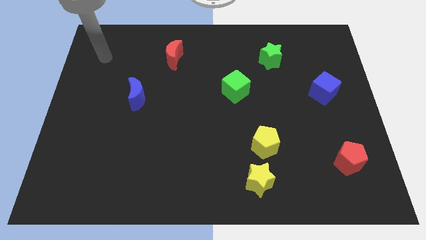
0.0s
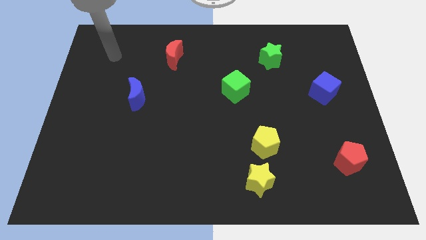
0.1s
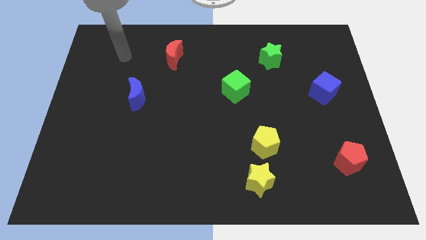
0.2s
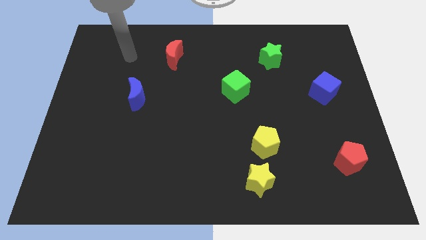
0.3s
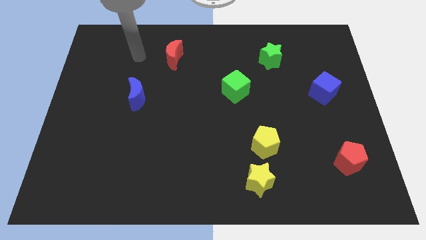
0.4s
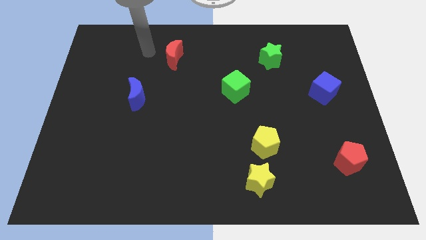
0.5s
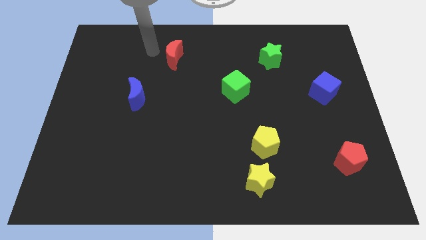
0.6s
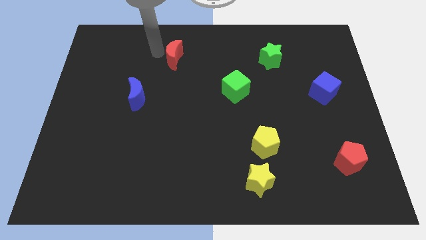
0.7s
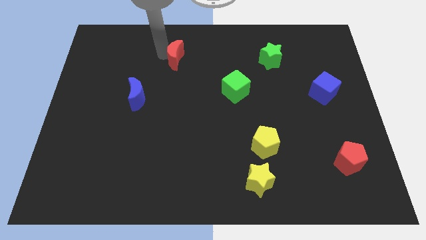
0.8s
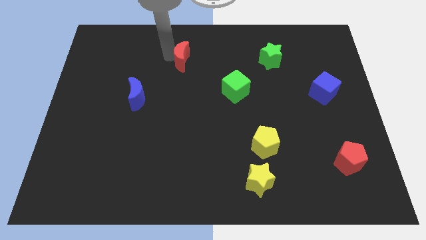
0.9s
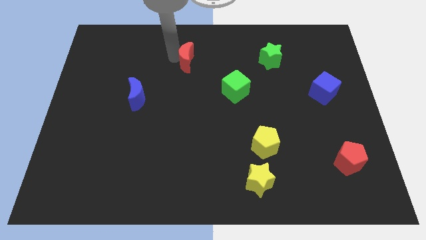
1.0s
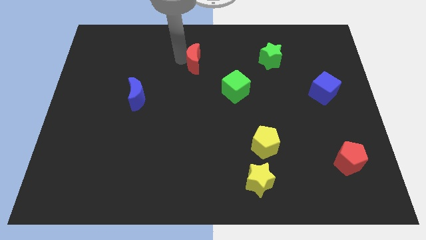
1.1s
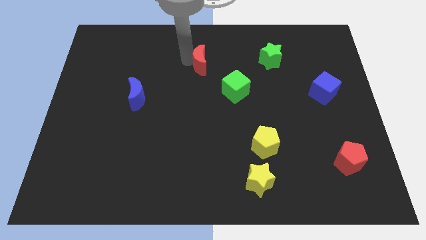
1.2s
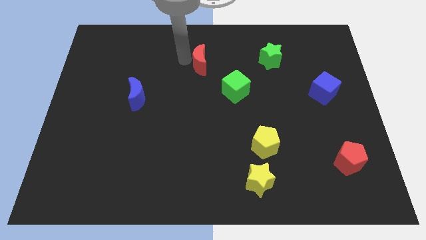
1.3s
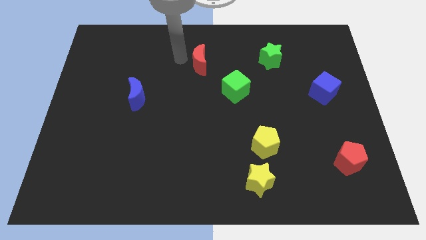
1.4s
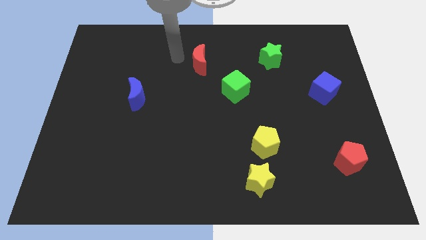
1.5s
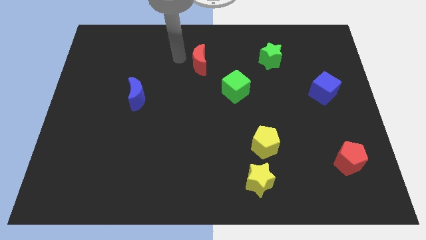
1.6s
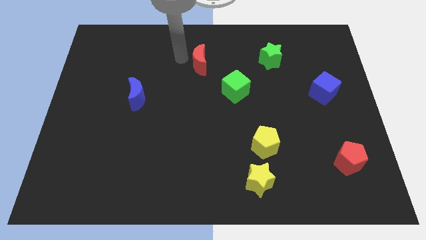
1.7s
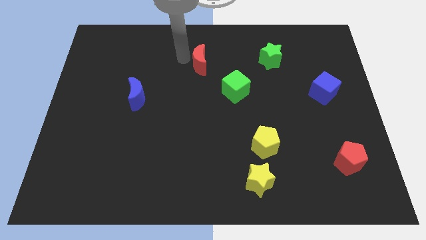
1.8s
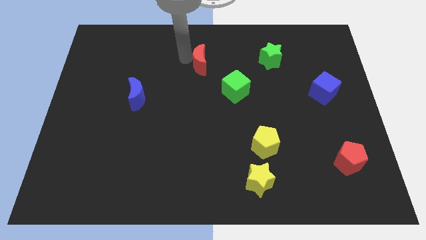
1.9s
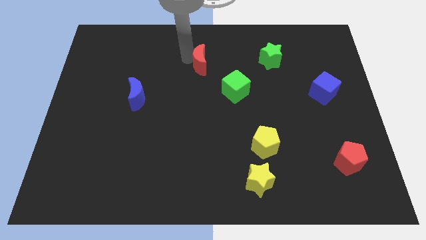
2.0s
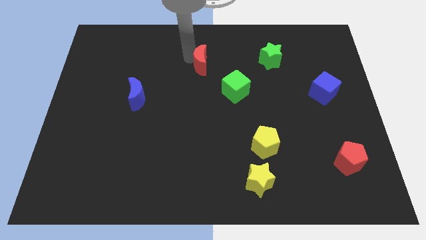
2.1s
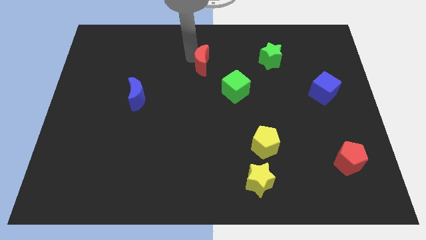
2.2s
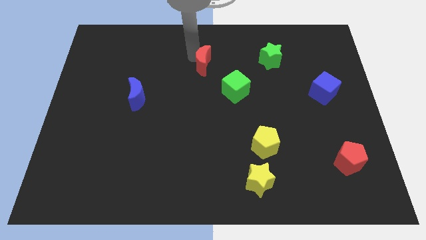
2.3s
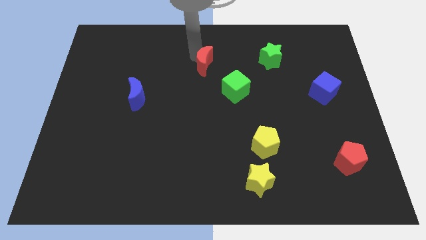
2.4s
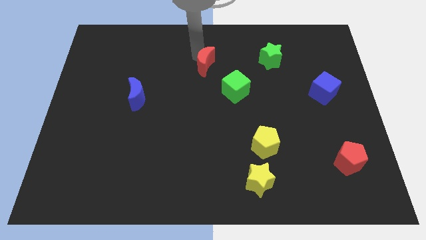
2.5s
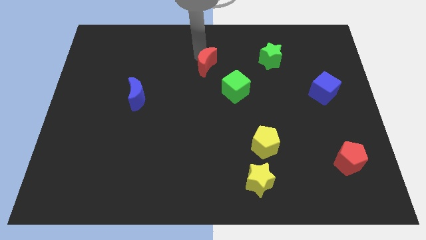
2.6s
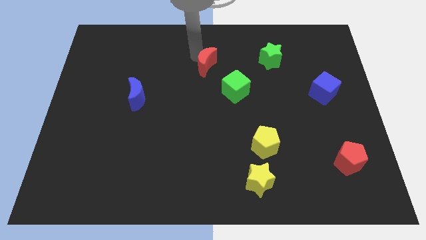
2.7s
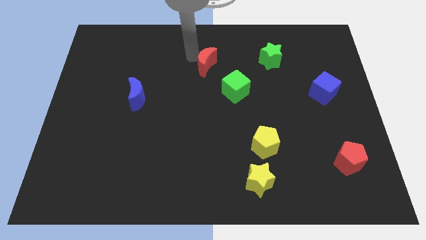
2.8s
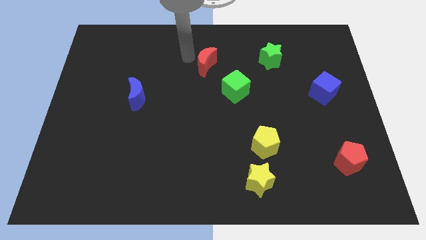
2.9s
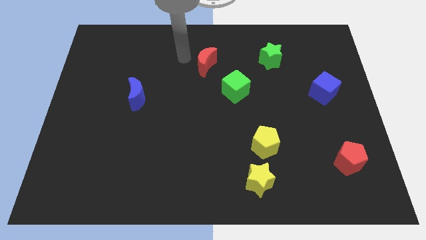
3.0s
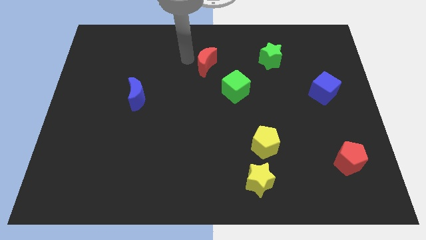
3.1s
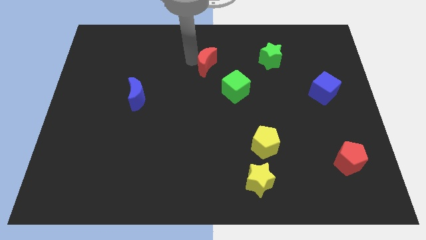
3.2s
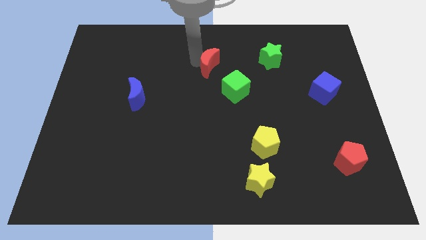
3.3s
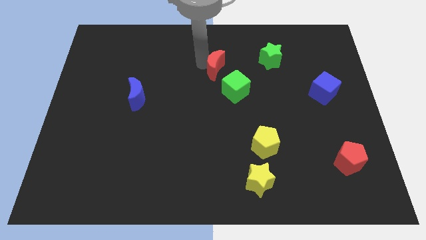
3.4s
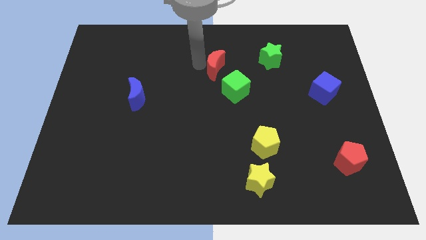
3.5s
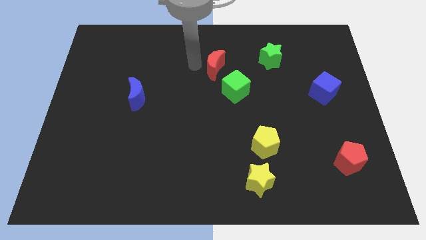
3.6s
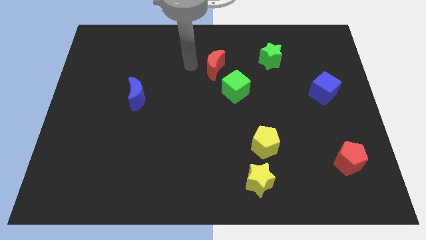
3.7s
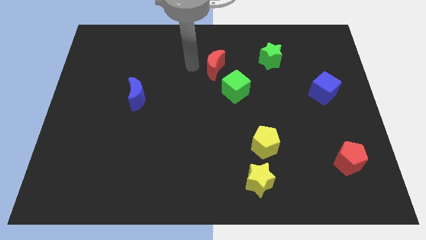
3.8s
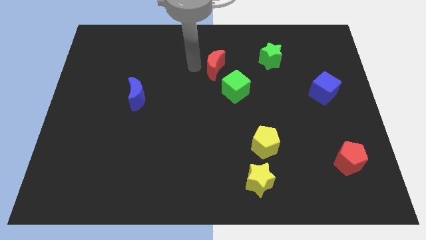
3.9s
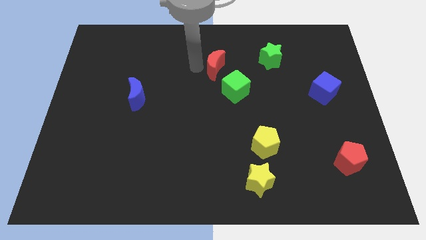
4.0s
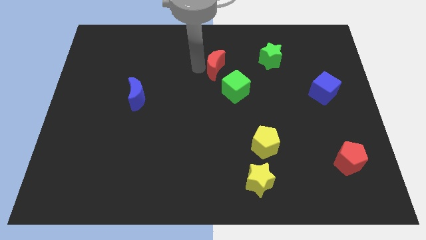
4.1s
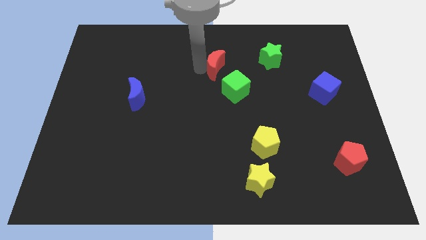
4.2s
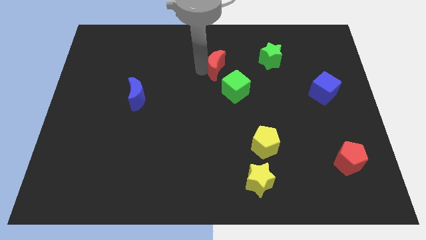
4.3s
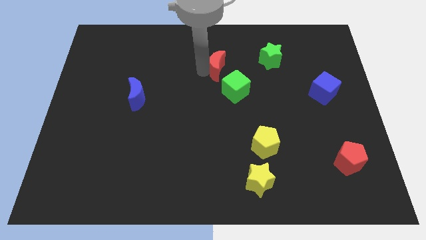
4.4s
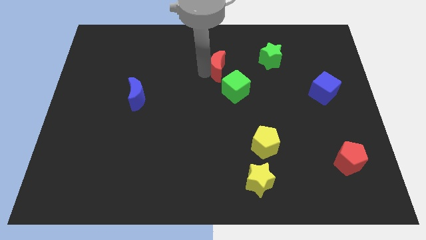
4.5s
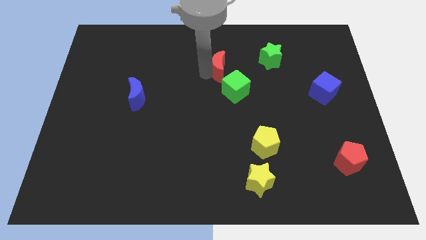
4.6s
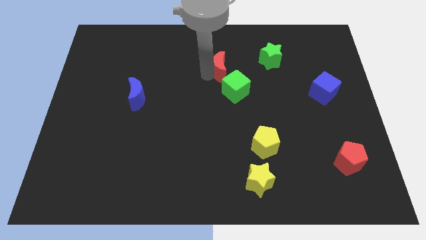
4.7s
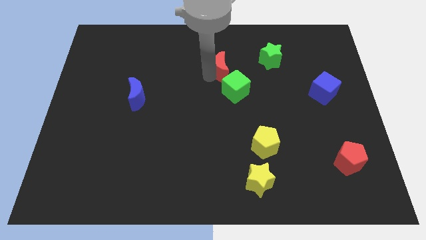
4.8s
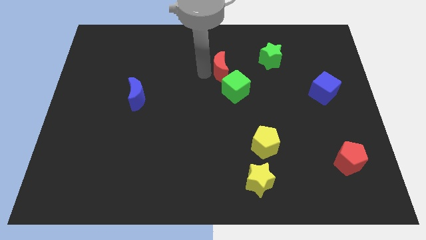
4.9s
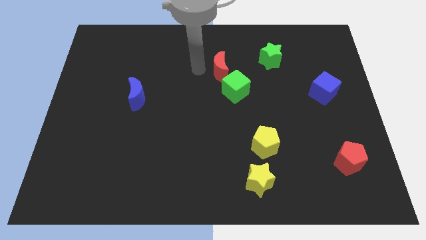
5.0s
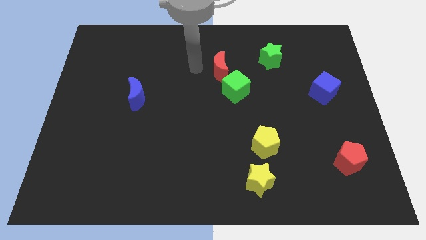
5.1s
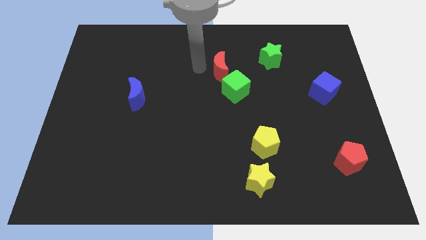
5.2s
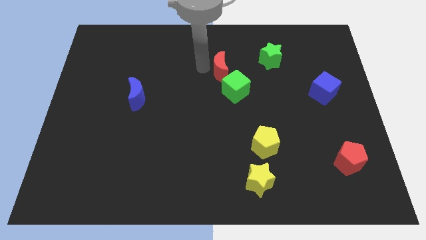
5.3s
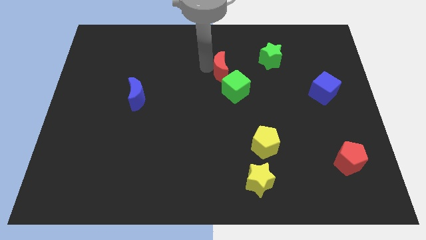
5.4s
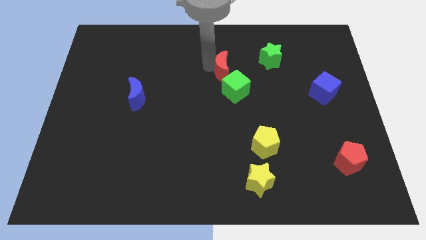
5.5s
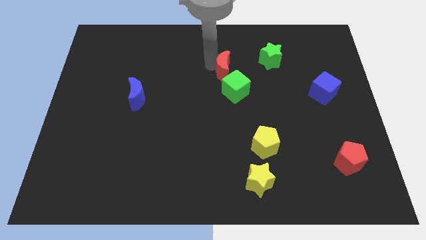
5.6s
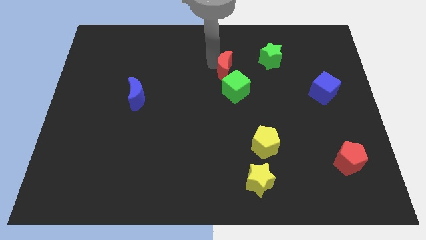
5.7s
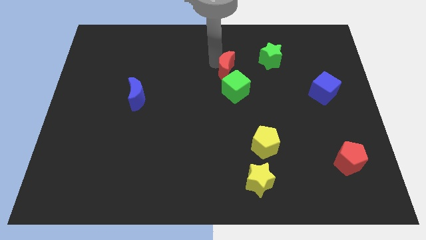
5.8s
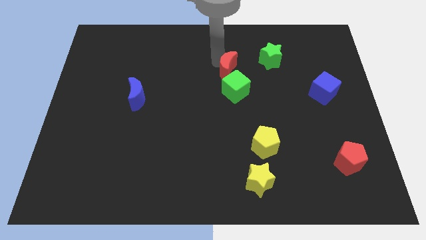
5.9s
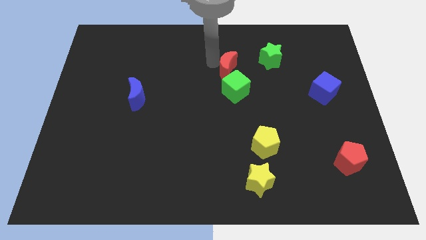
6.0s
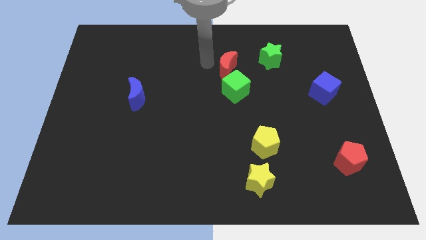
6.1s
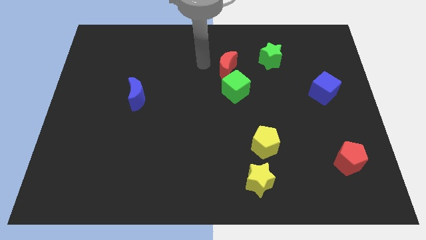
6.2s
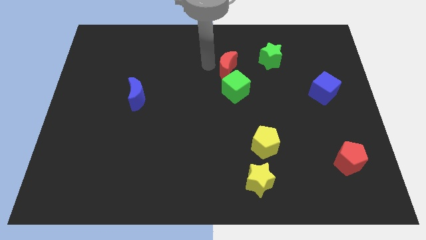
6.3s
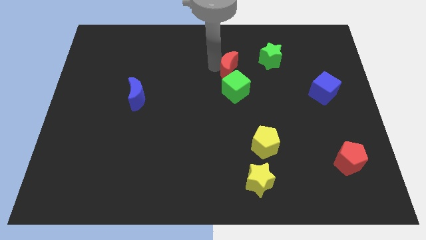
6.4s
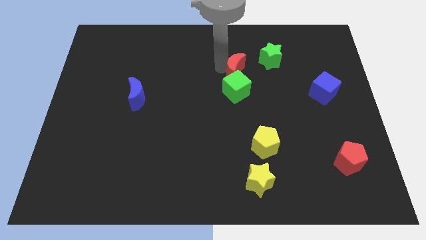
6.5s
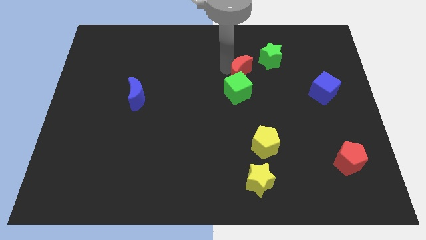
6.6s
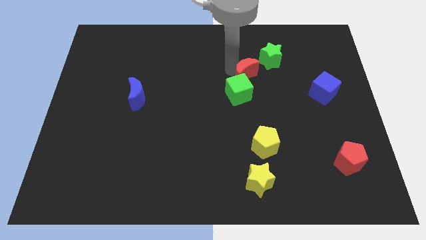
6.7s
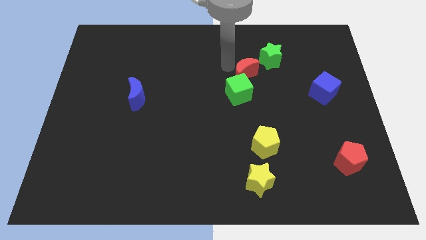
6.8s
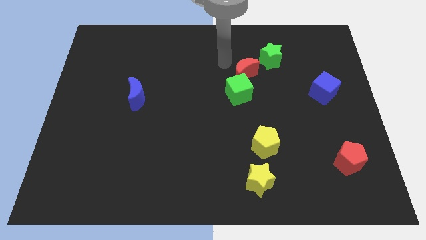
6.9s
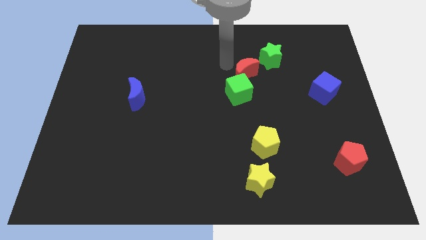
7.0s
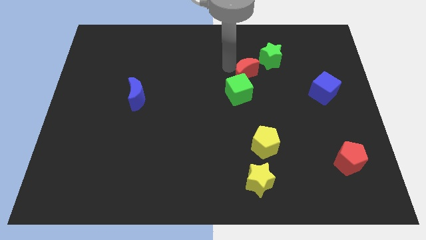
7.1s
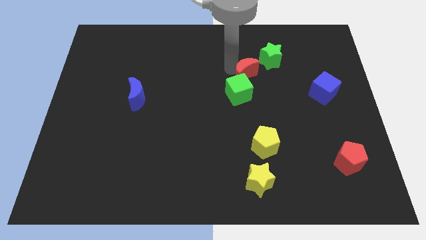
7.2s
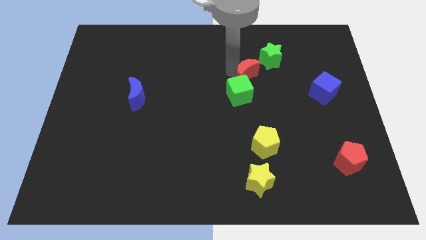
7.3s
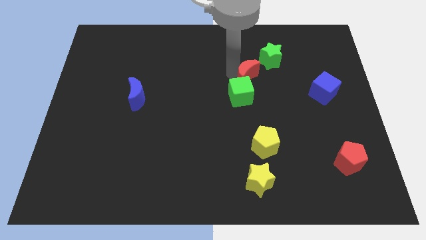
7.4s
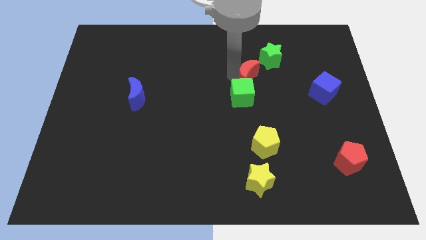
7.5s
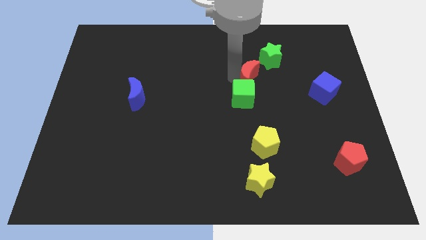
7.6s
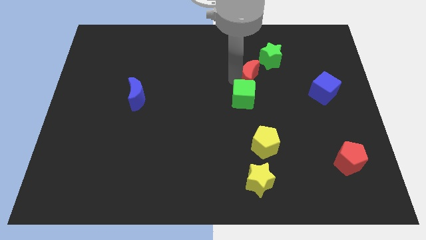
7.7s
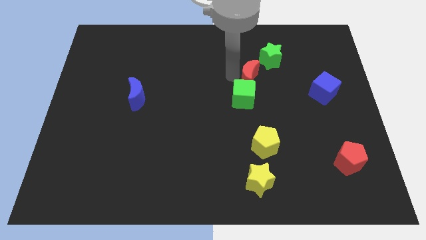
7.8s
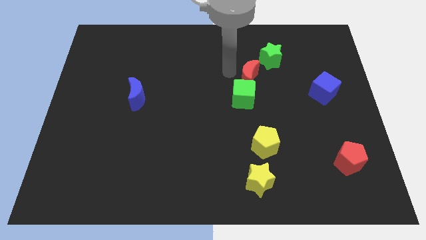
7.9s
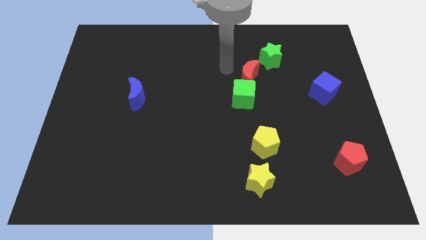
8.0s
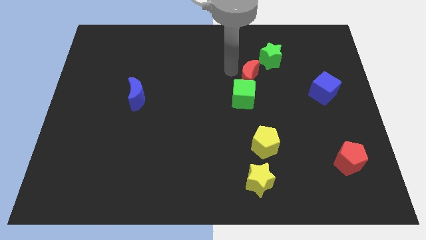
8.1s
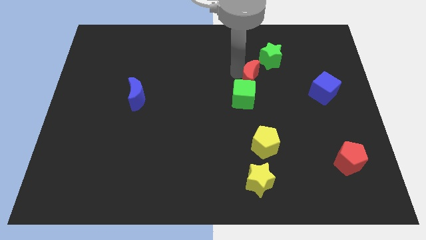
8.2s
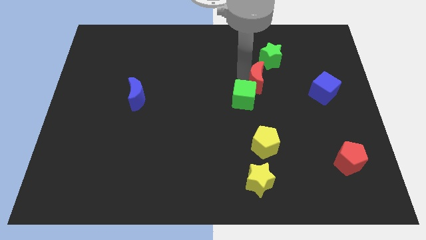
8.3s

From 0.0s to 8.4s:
put the red moon to the bottom of the green star
